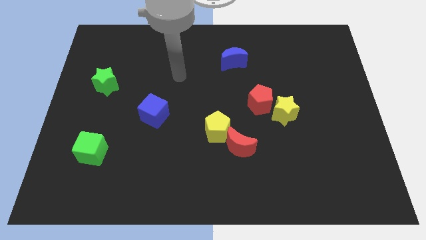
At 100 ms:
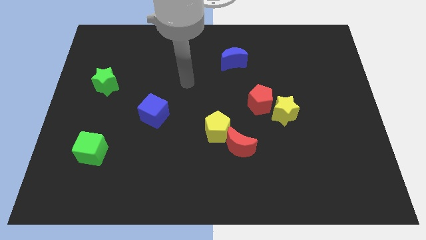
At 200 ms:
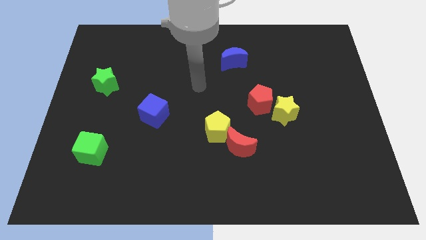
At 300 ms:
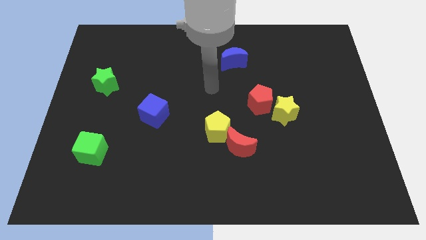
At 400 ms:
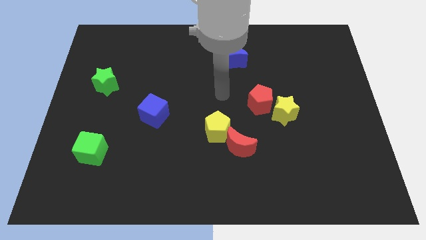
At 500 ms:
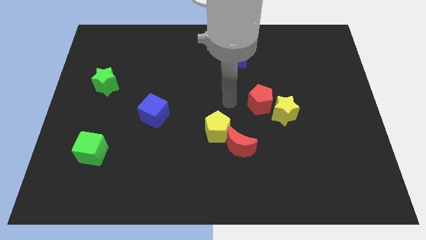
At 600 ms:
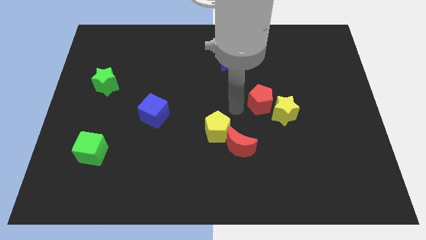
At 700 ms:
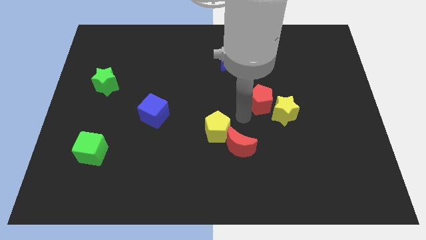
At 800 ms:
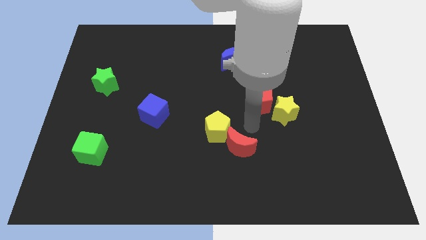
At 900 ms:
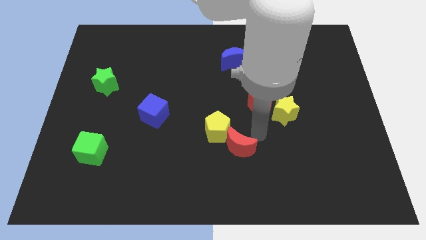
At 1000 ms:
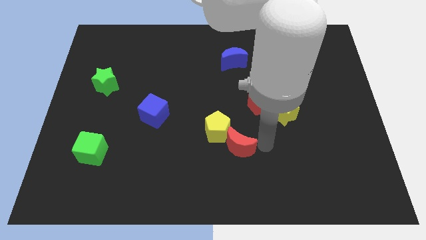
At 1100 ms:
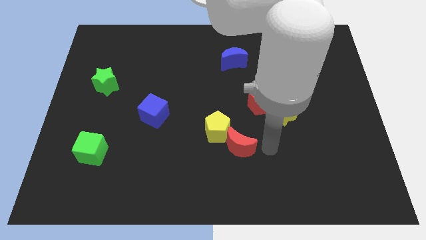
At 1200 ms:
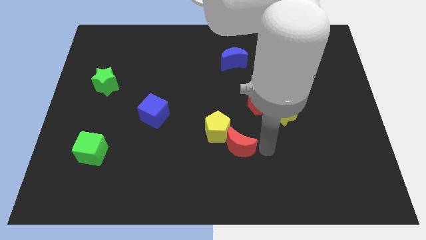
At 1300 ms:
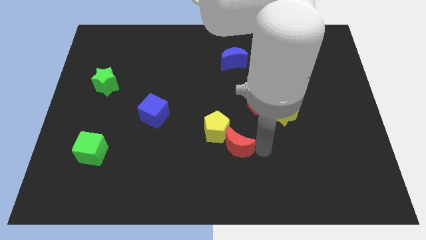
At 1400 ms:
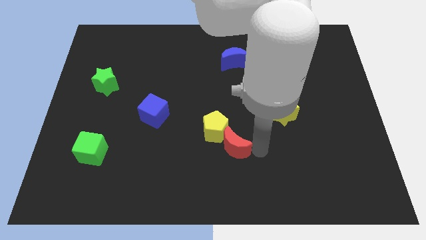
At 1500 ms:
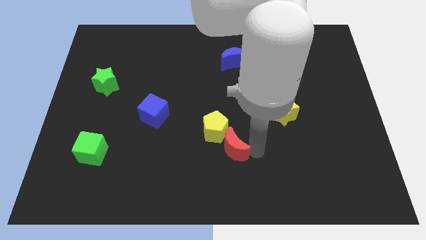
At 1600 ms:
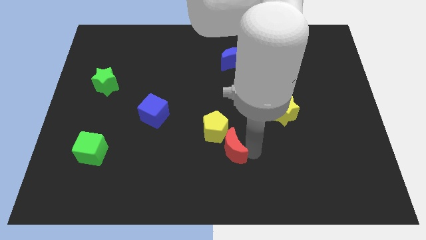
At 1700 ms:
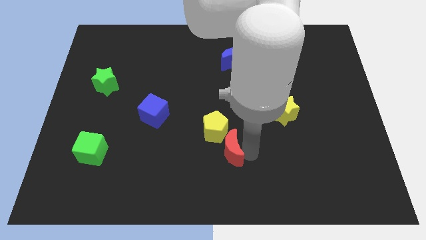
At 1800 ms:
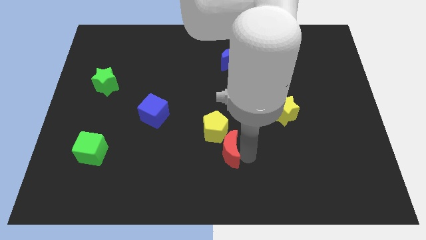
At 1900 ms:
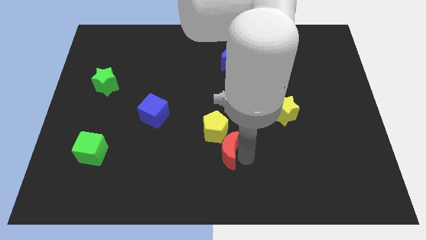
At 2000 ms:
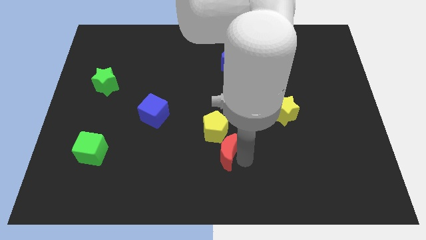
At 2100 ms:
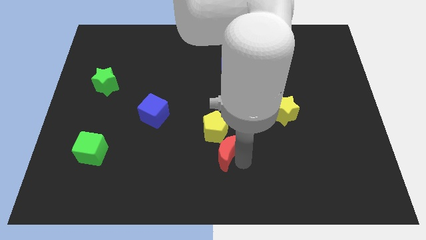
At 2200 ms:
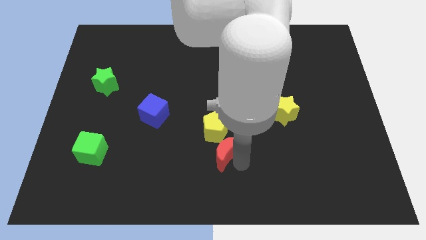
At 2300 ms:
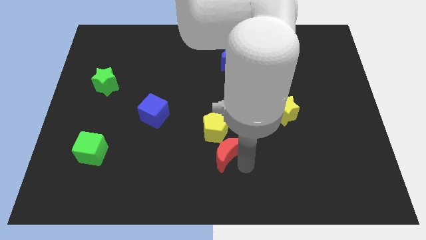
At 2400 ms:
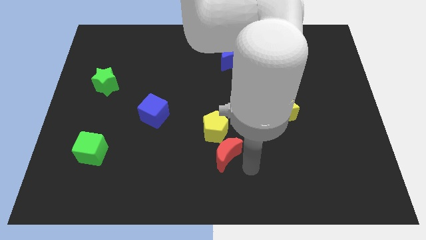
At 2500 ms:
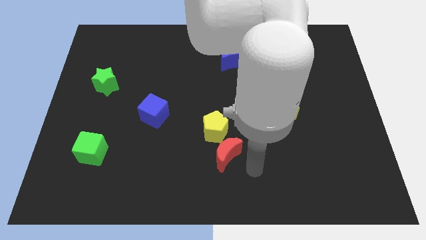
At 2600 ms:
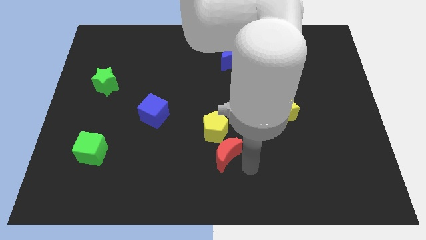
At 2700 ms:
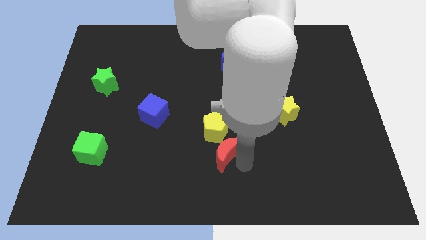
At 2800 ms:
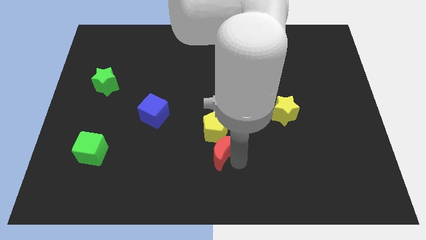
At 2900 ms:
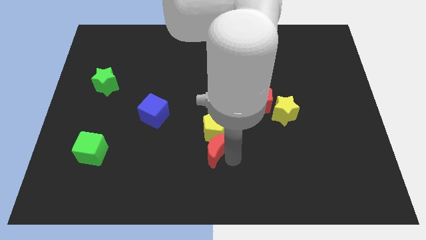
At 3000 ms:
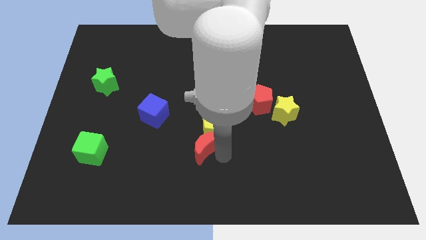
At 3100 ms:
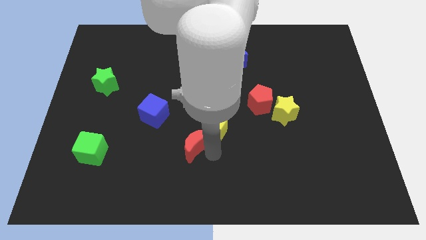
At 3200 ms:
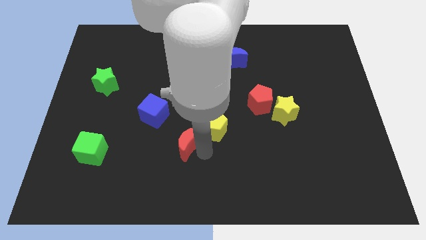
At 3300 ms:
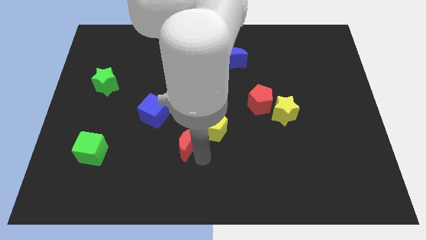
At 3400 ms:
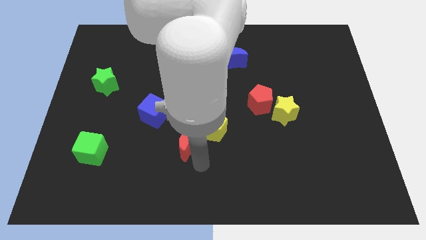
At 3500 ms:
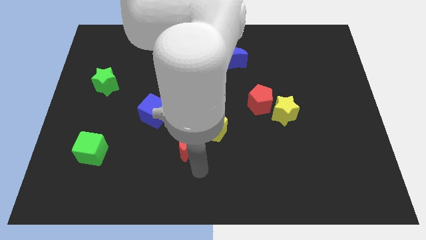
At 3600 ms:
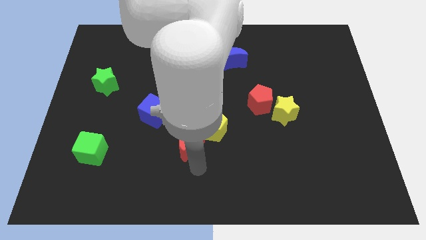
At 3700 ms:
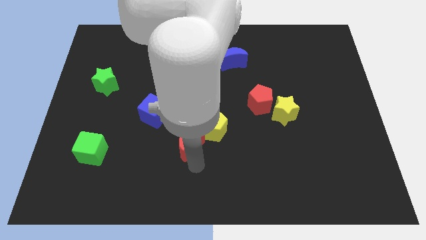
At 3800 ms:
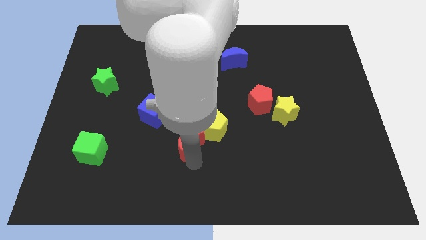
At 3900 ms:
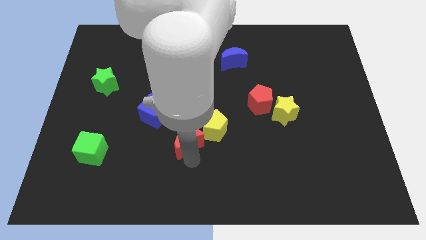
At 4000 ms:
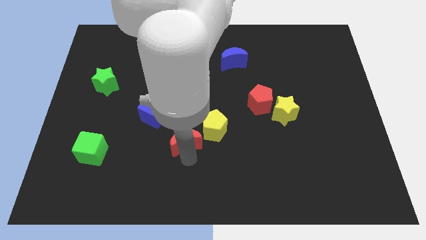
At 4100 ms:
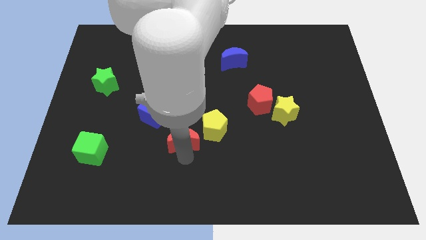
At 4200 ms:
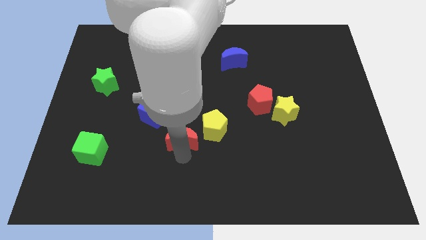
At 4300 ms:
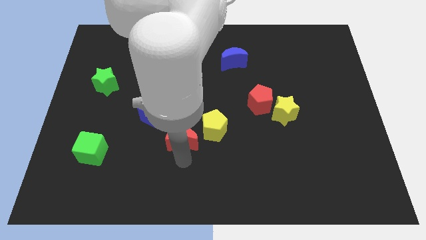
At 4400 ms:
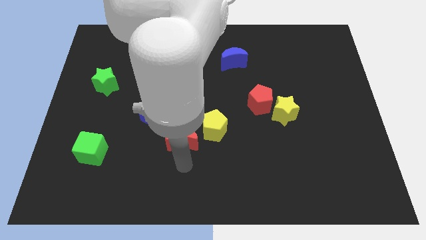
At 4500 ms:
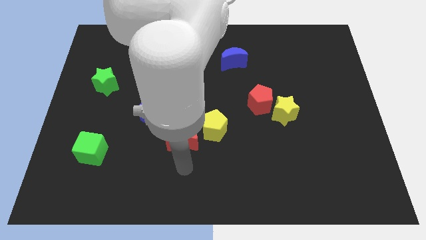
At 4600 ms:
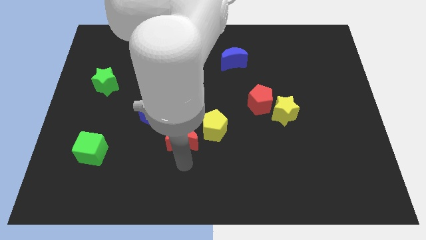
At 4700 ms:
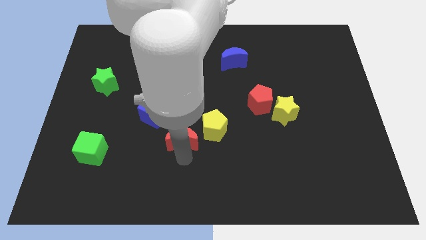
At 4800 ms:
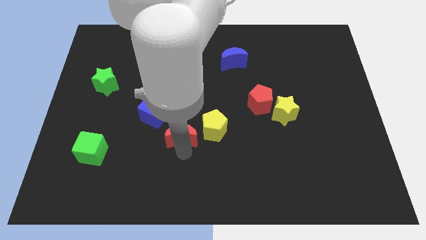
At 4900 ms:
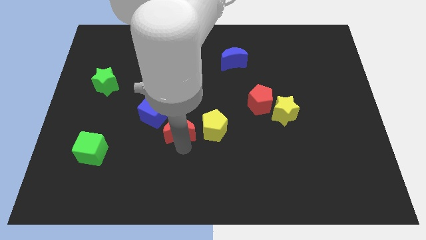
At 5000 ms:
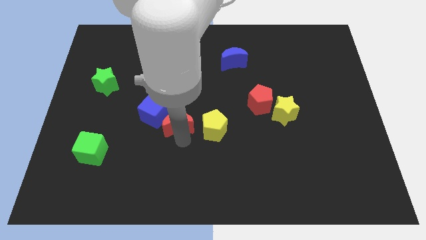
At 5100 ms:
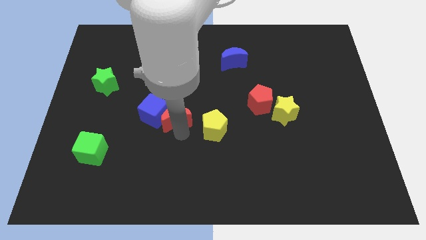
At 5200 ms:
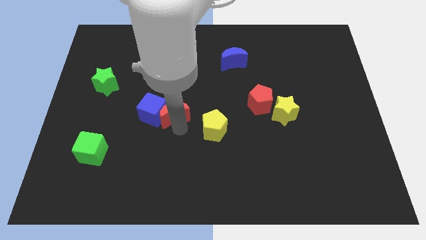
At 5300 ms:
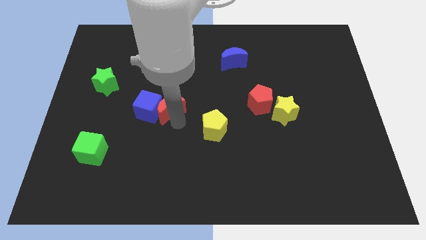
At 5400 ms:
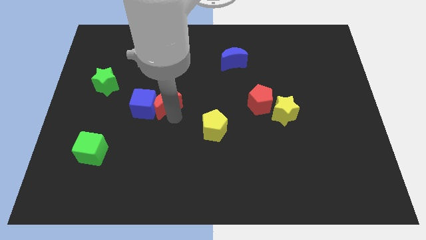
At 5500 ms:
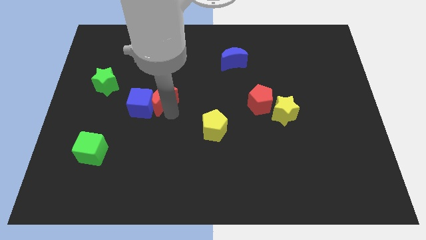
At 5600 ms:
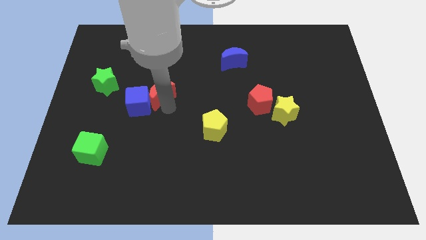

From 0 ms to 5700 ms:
push the red moon right of the green star

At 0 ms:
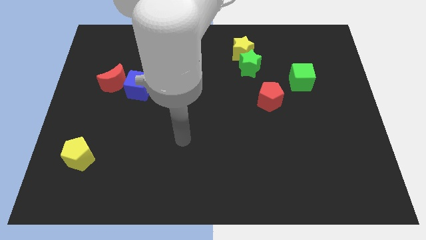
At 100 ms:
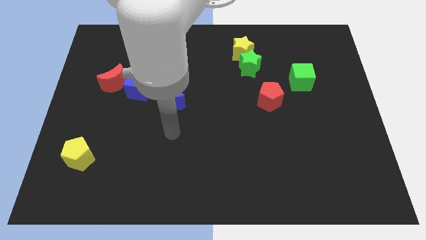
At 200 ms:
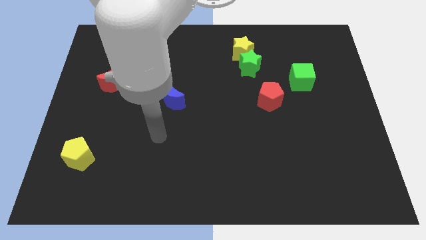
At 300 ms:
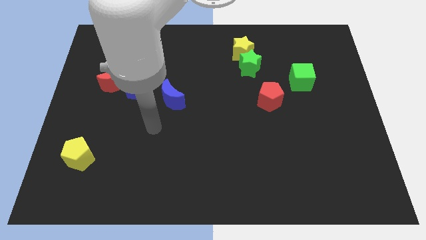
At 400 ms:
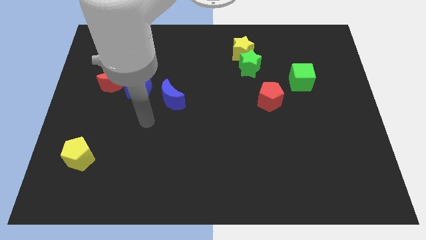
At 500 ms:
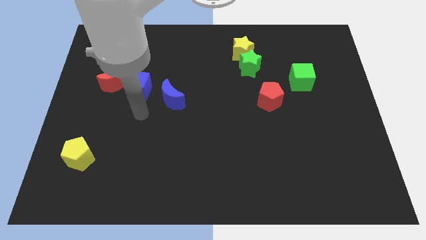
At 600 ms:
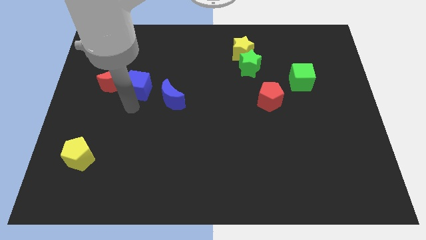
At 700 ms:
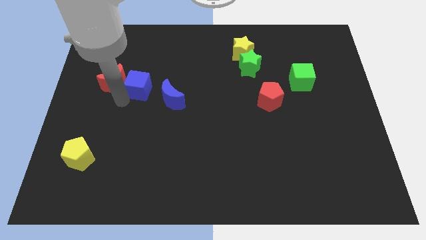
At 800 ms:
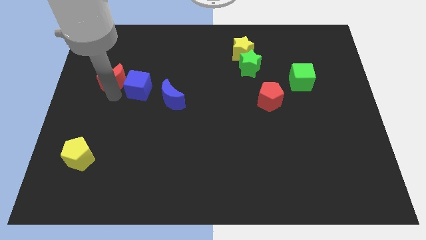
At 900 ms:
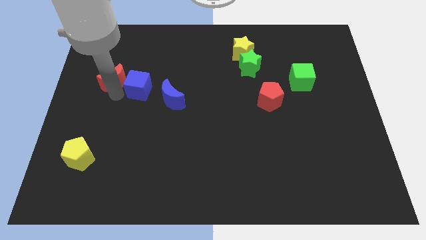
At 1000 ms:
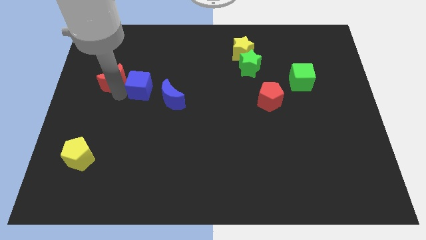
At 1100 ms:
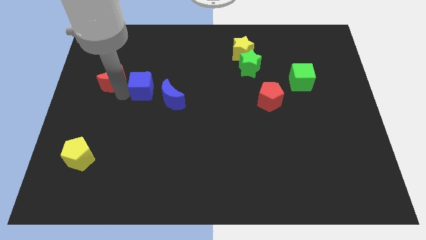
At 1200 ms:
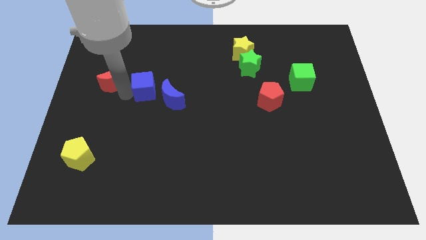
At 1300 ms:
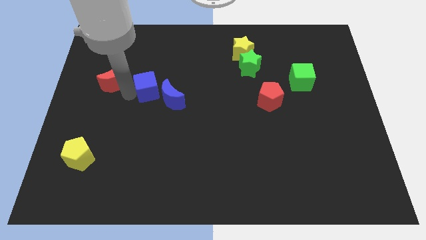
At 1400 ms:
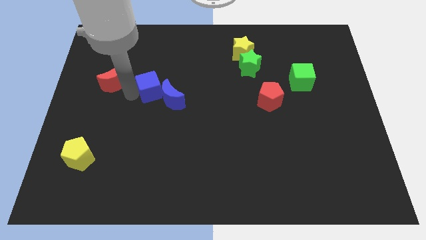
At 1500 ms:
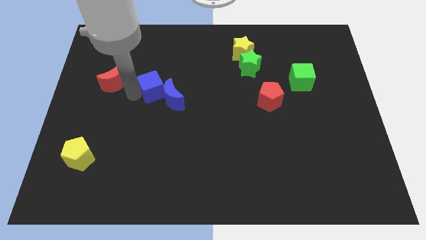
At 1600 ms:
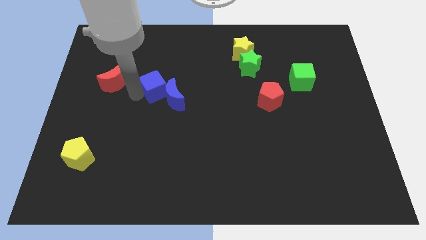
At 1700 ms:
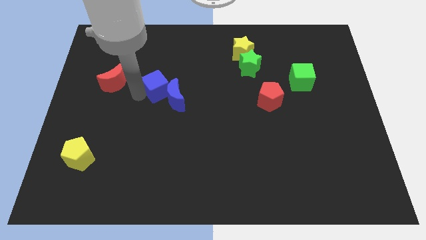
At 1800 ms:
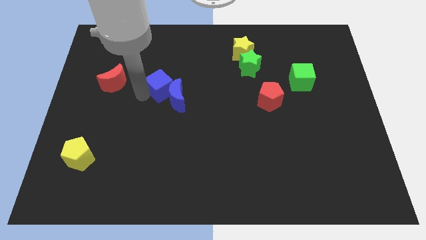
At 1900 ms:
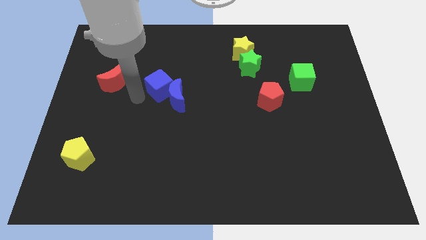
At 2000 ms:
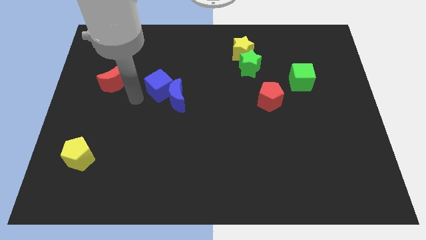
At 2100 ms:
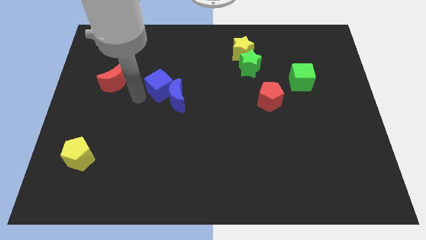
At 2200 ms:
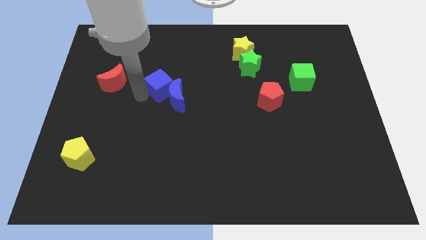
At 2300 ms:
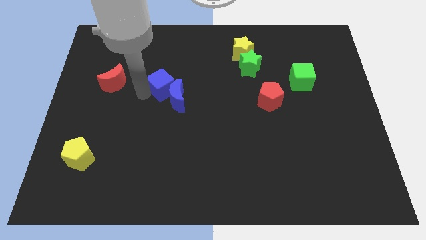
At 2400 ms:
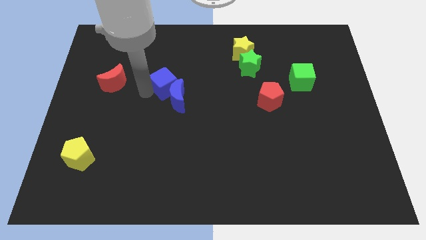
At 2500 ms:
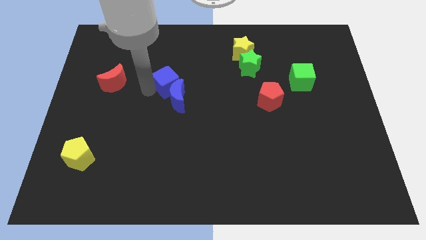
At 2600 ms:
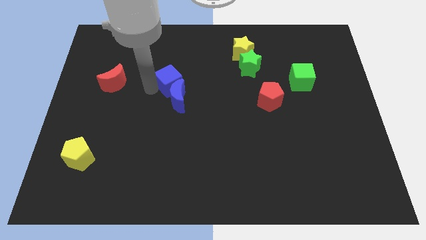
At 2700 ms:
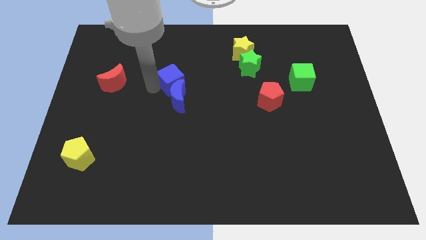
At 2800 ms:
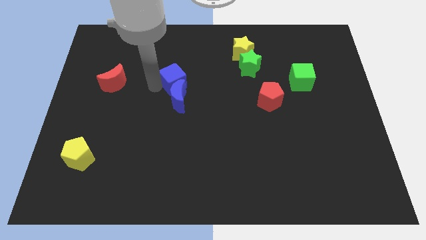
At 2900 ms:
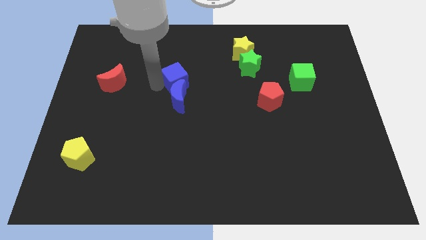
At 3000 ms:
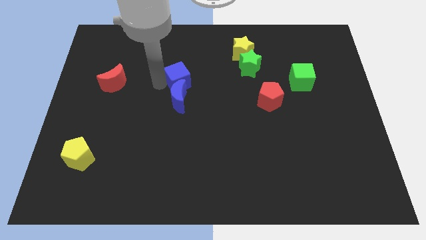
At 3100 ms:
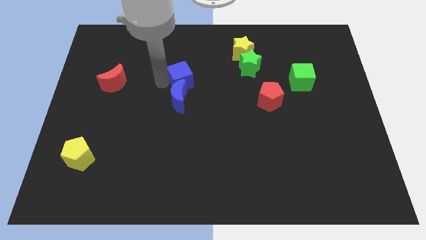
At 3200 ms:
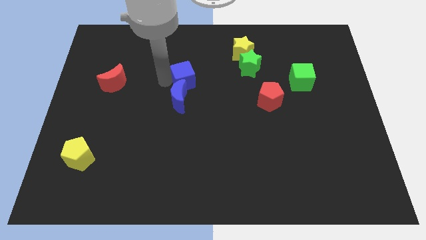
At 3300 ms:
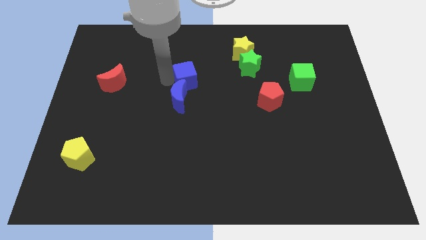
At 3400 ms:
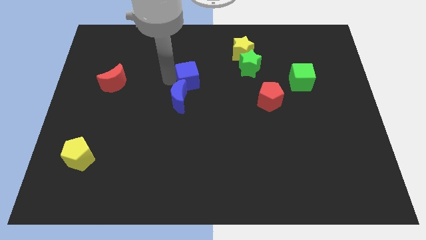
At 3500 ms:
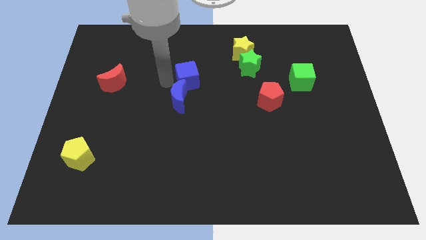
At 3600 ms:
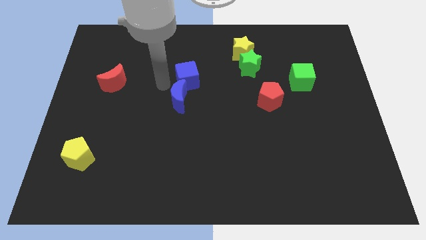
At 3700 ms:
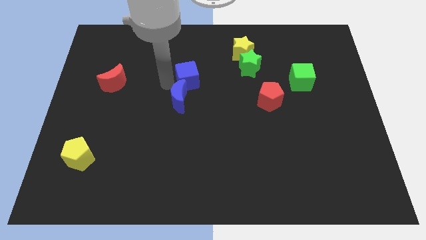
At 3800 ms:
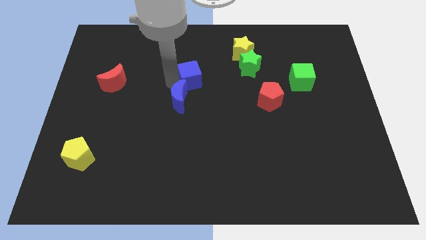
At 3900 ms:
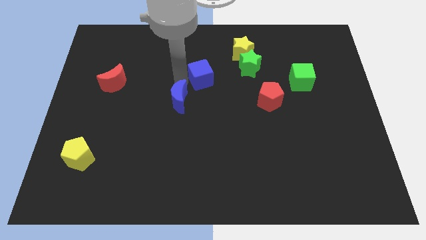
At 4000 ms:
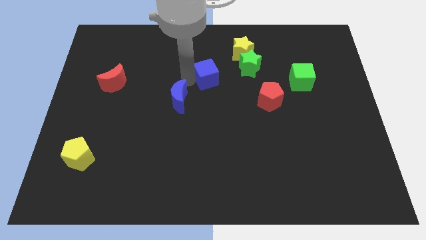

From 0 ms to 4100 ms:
put the blue cube diagonally down and to the left of the yellow star
